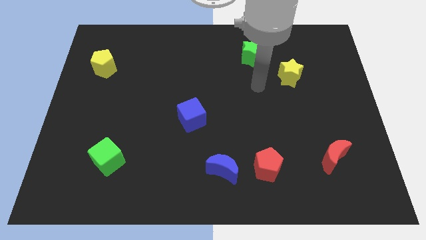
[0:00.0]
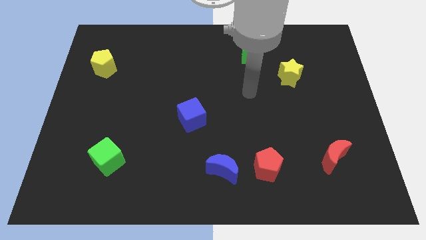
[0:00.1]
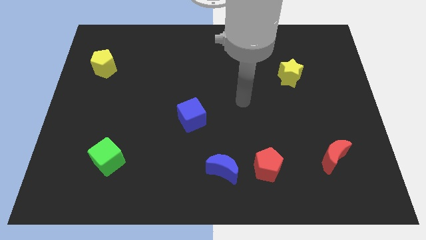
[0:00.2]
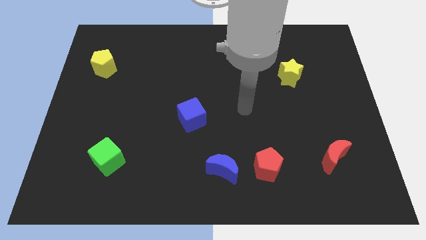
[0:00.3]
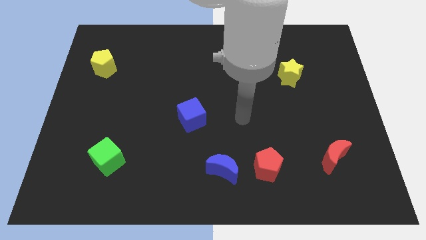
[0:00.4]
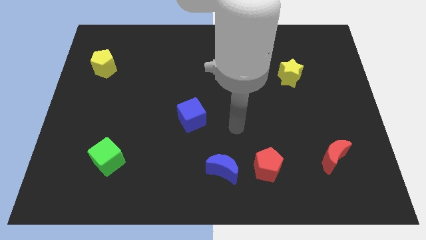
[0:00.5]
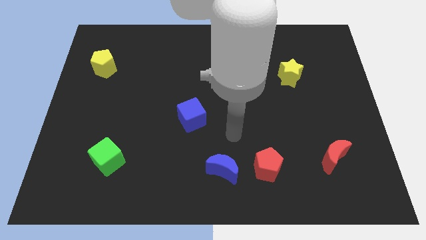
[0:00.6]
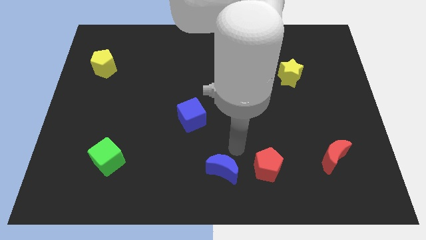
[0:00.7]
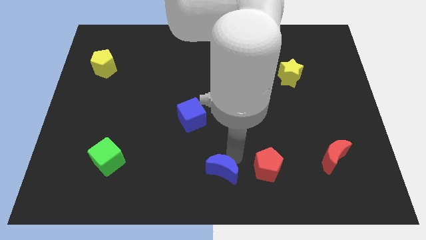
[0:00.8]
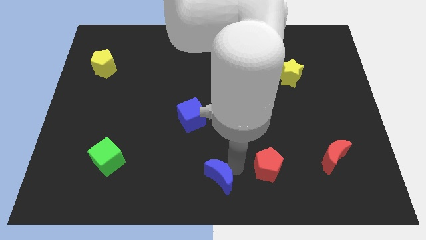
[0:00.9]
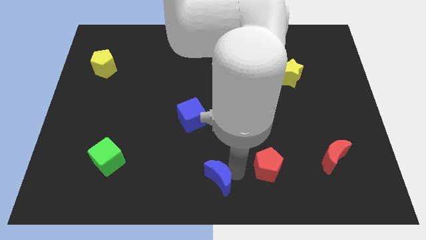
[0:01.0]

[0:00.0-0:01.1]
pull the red pentagon apart from the blue moon

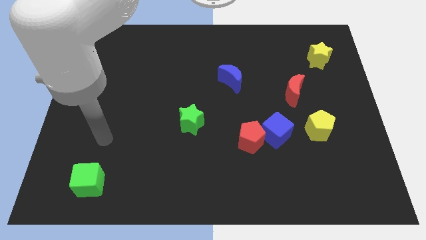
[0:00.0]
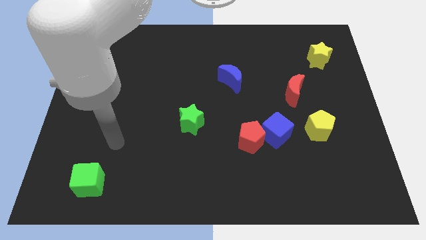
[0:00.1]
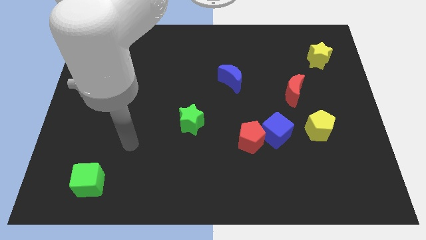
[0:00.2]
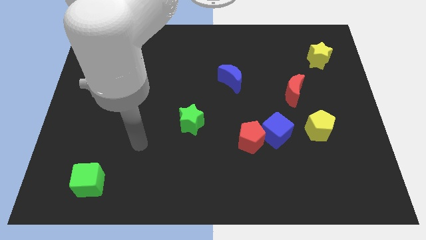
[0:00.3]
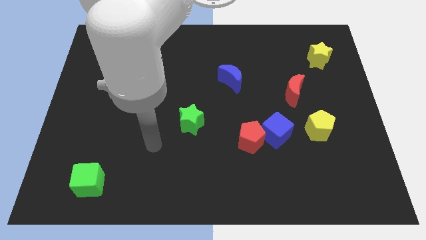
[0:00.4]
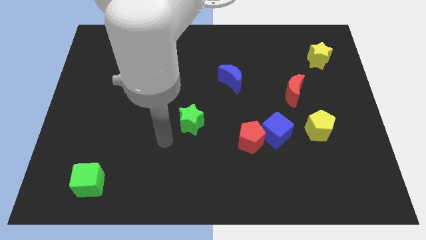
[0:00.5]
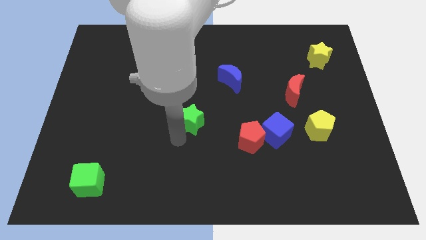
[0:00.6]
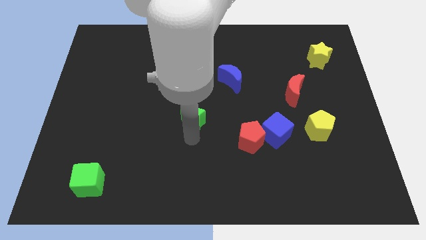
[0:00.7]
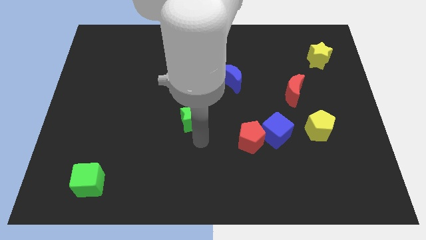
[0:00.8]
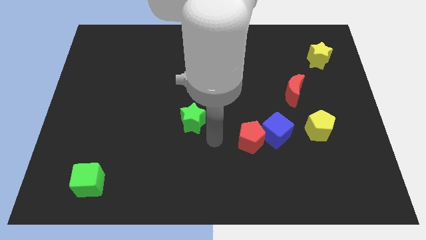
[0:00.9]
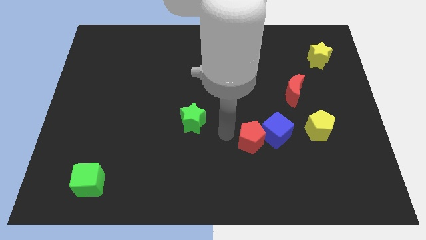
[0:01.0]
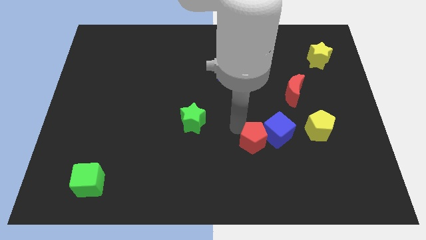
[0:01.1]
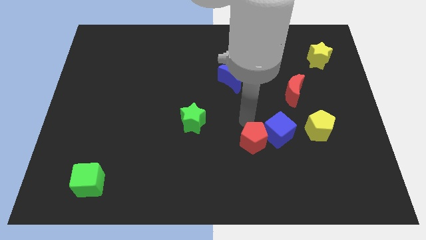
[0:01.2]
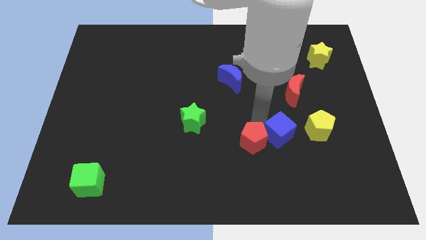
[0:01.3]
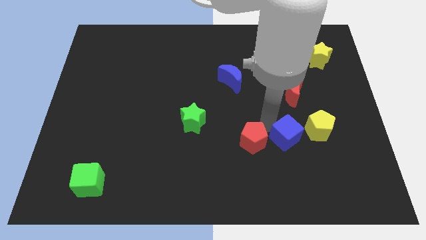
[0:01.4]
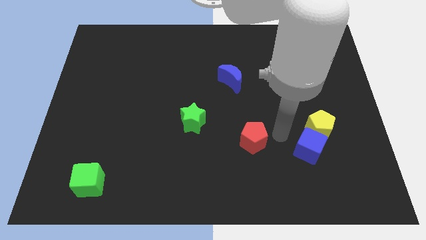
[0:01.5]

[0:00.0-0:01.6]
pull the red pentagon apart from the blue cube

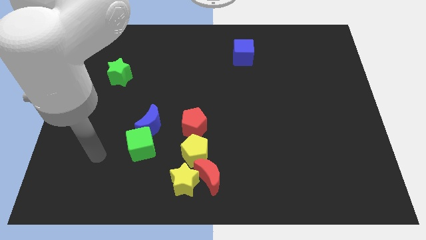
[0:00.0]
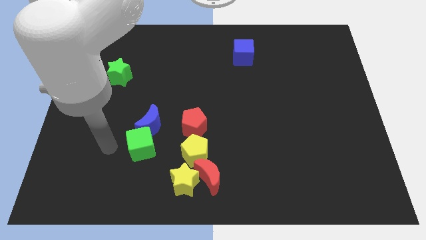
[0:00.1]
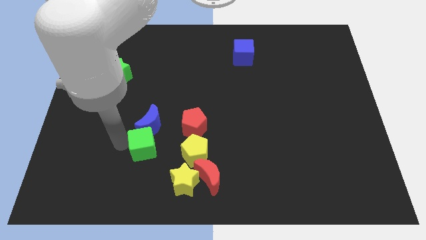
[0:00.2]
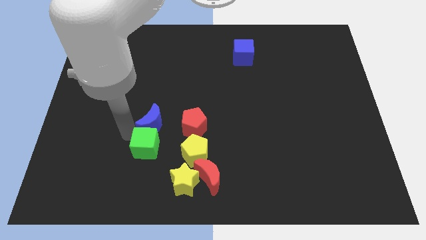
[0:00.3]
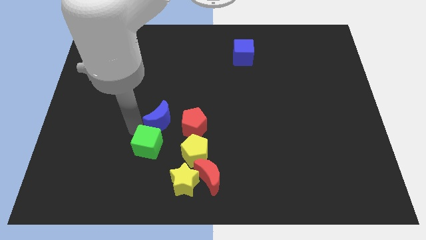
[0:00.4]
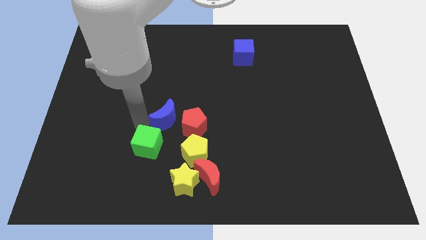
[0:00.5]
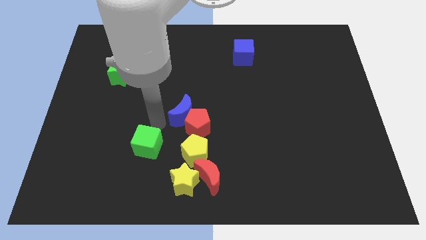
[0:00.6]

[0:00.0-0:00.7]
separate the green cube from the blue moon

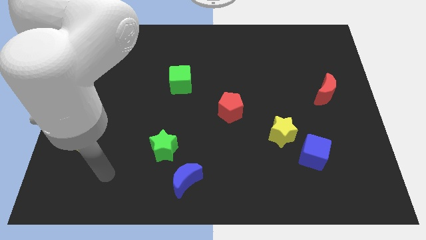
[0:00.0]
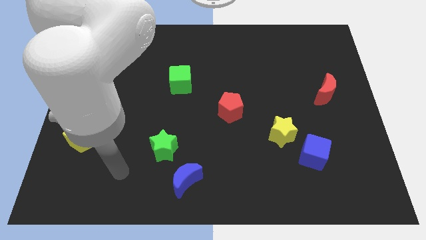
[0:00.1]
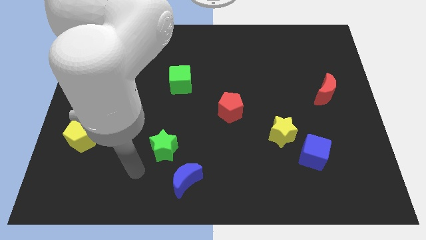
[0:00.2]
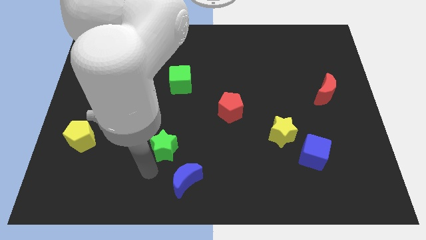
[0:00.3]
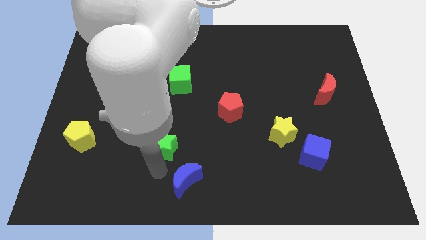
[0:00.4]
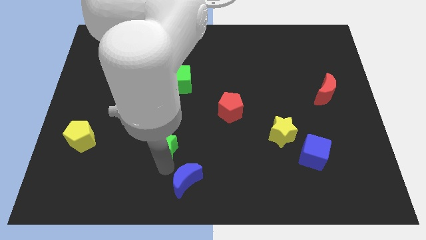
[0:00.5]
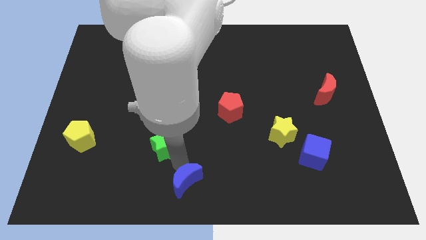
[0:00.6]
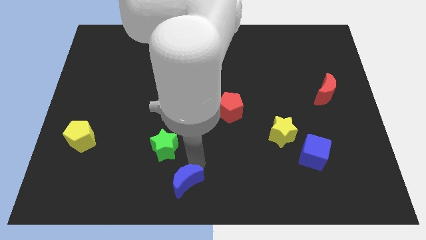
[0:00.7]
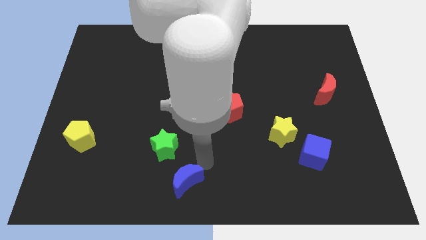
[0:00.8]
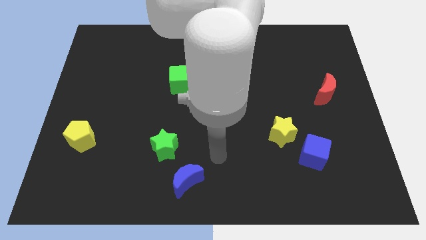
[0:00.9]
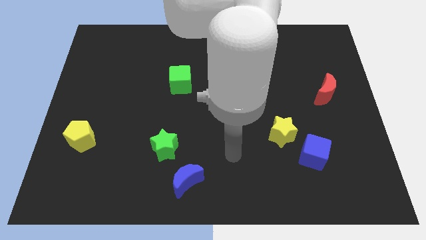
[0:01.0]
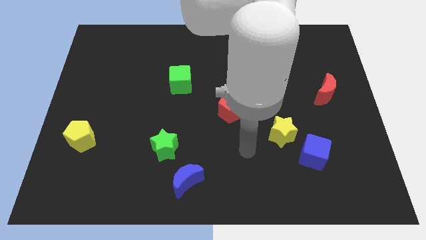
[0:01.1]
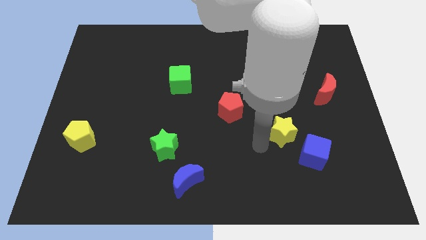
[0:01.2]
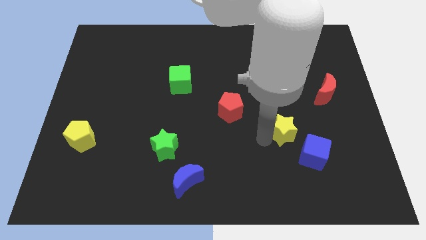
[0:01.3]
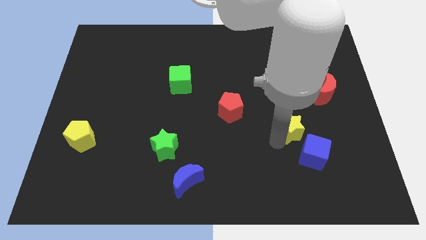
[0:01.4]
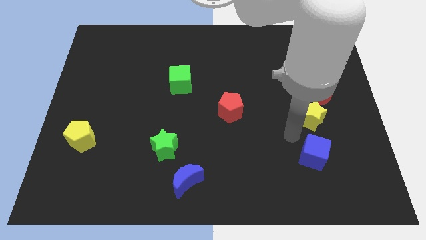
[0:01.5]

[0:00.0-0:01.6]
separate the blue cube from the yellow star

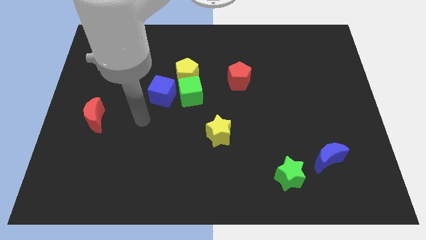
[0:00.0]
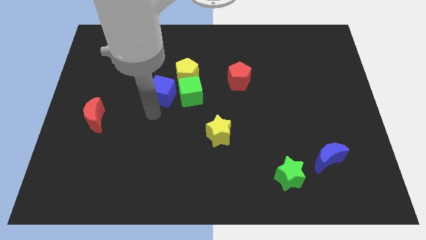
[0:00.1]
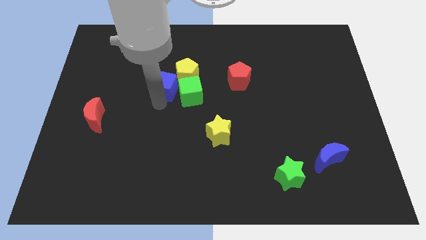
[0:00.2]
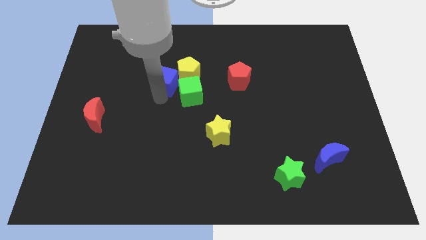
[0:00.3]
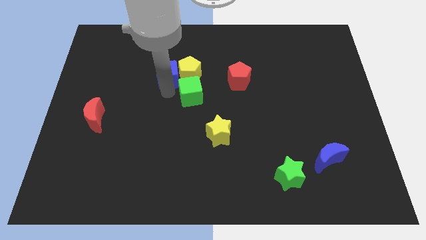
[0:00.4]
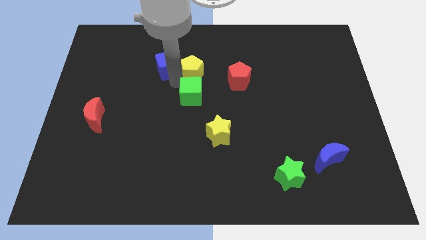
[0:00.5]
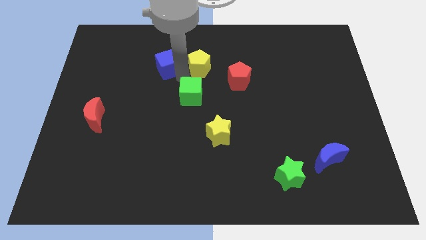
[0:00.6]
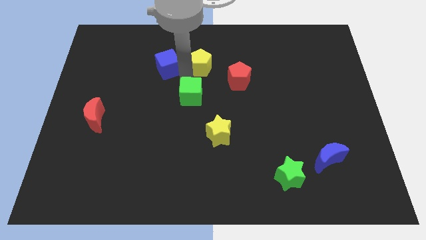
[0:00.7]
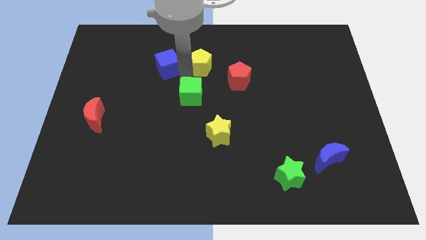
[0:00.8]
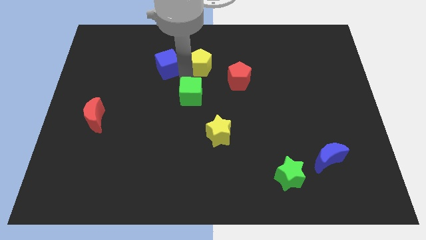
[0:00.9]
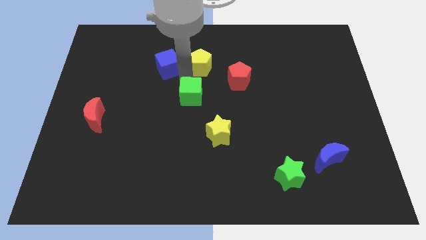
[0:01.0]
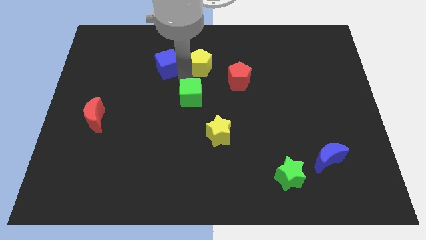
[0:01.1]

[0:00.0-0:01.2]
pull the green cube apart from the yellow pentagon and blue cube

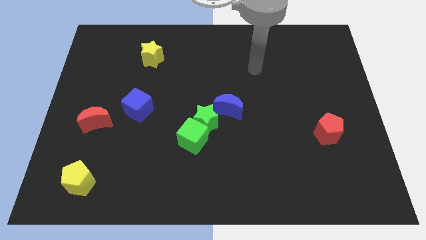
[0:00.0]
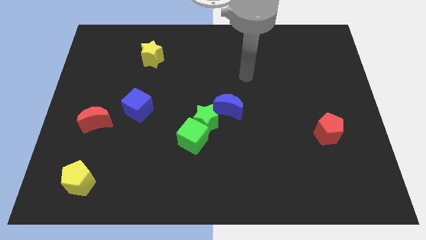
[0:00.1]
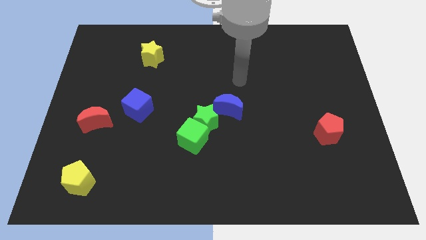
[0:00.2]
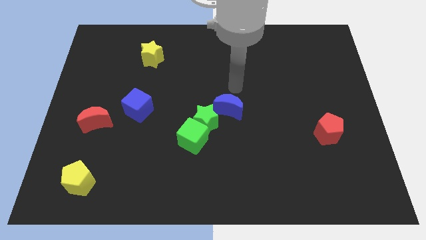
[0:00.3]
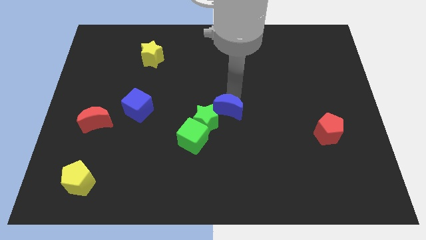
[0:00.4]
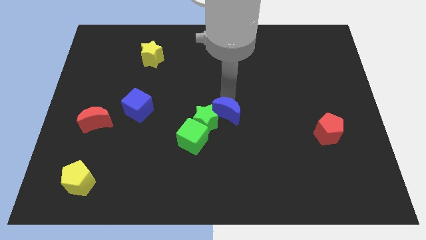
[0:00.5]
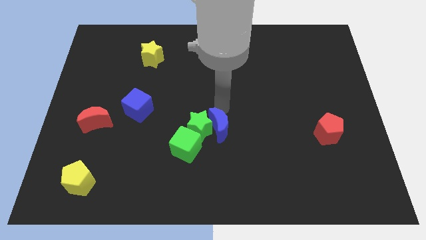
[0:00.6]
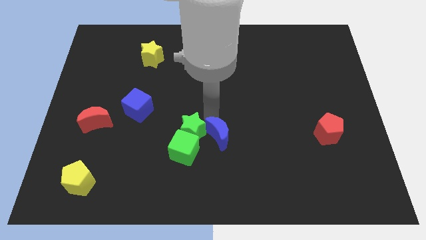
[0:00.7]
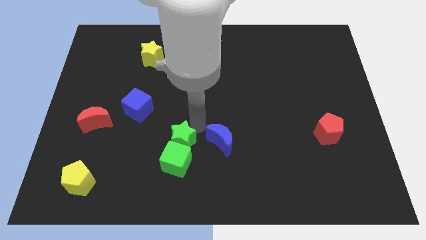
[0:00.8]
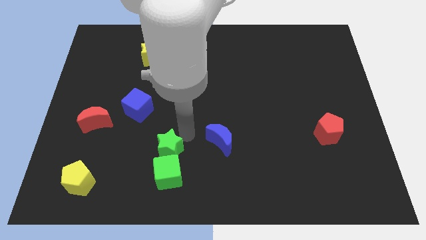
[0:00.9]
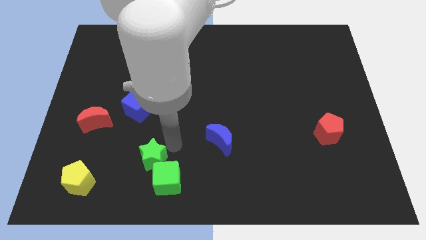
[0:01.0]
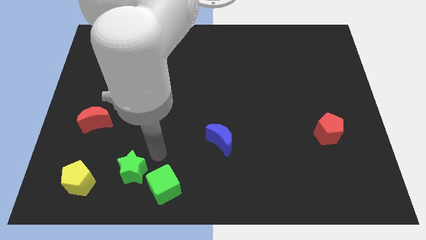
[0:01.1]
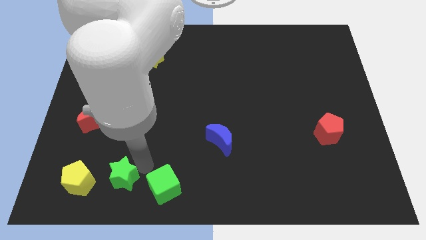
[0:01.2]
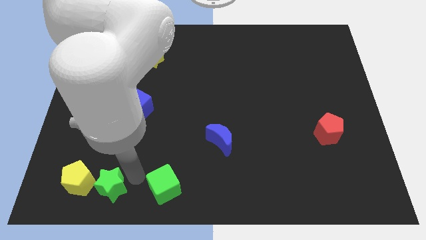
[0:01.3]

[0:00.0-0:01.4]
separate the green cube from the green star

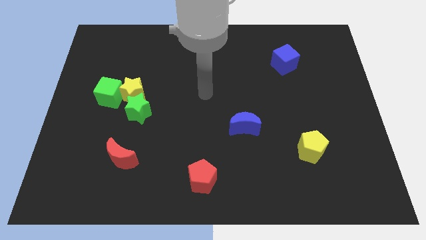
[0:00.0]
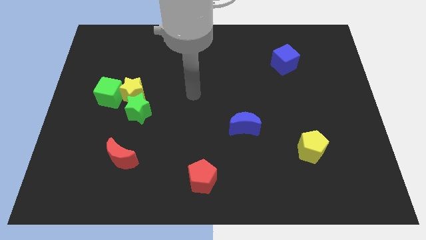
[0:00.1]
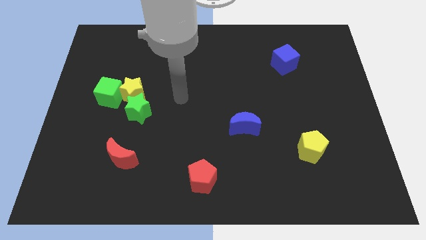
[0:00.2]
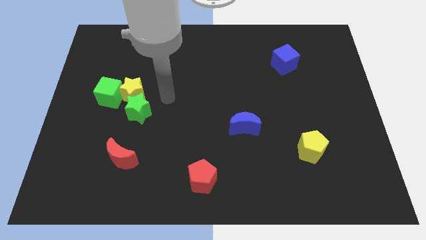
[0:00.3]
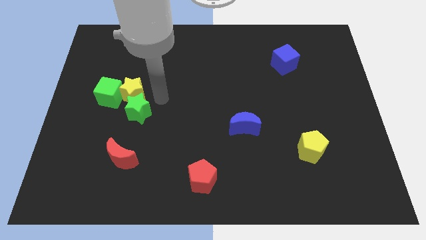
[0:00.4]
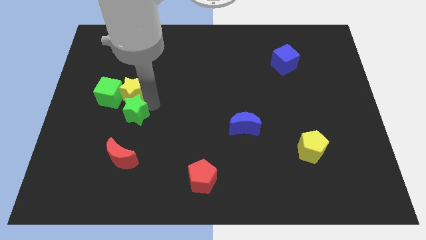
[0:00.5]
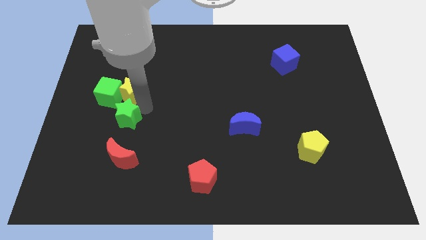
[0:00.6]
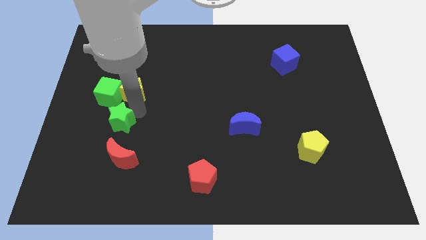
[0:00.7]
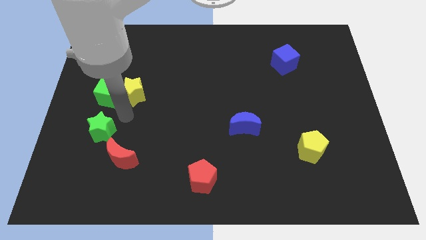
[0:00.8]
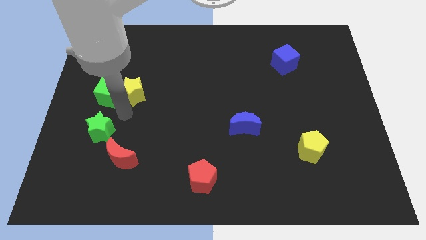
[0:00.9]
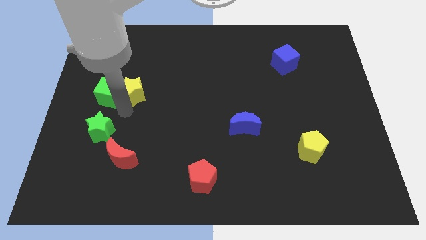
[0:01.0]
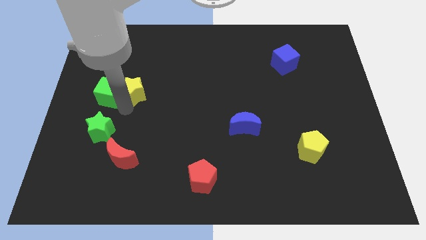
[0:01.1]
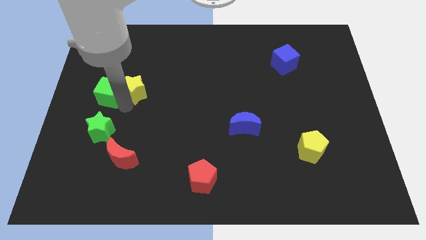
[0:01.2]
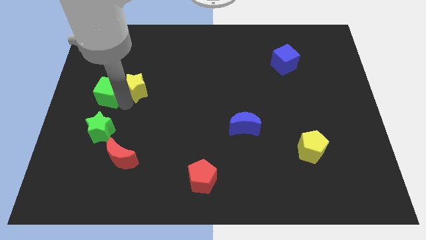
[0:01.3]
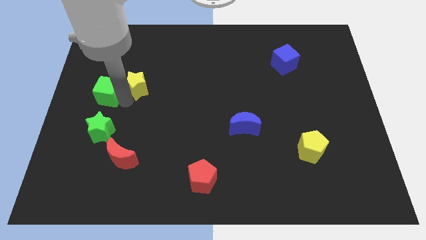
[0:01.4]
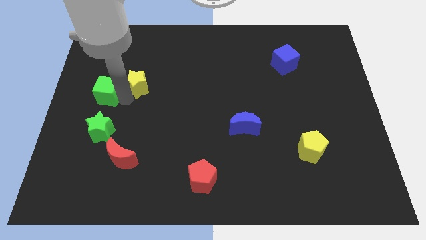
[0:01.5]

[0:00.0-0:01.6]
move the yellow star away from the green cube and green star
